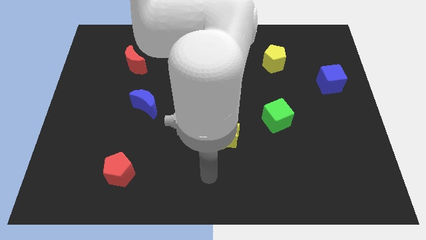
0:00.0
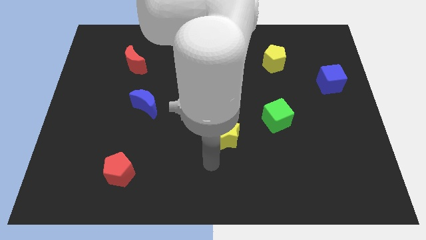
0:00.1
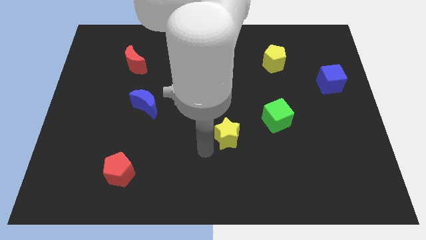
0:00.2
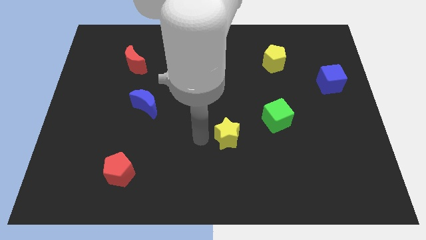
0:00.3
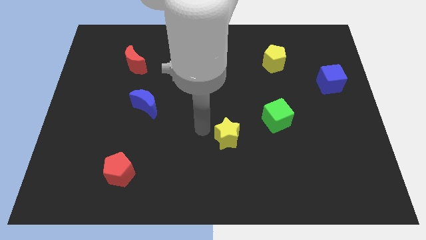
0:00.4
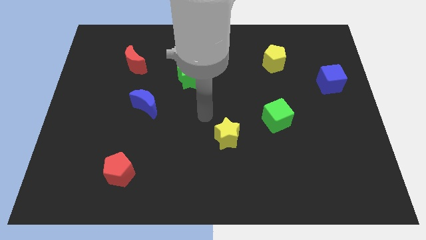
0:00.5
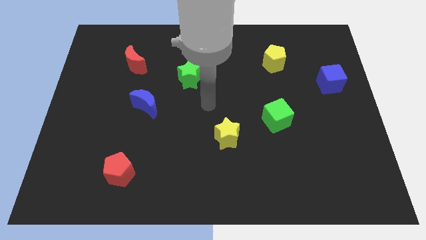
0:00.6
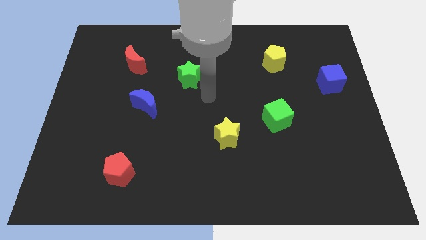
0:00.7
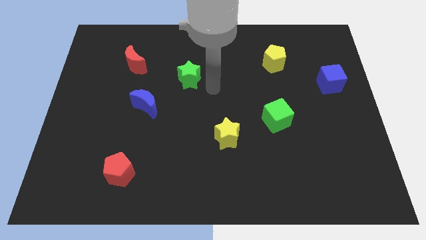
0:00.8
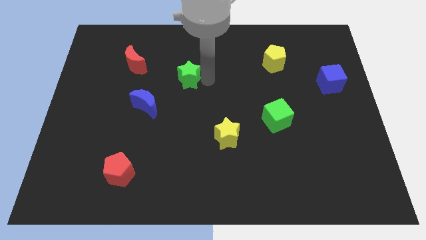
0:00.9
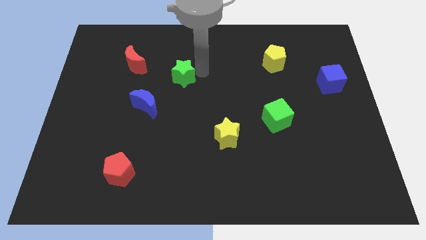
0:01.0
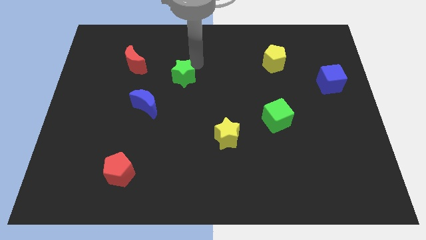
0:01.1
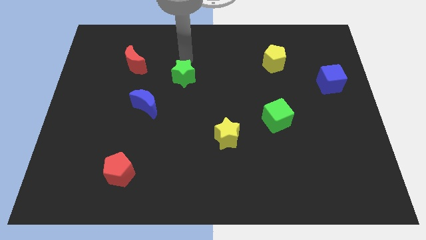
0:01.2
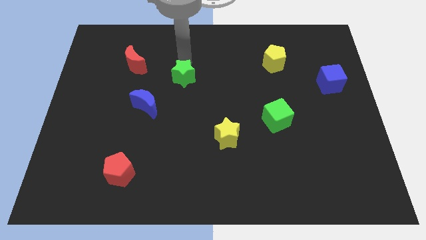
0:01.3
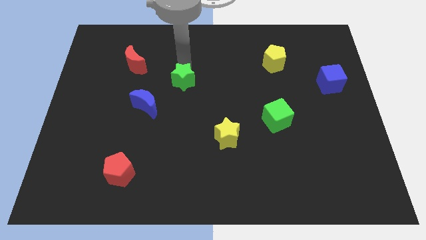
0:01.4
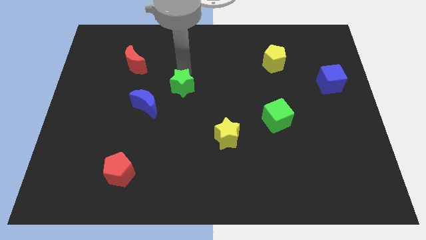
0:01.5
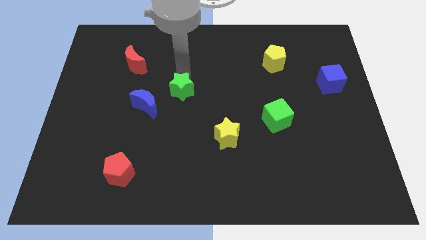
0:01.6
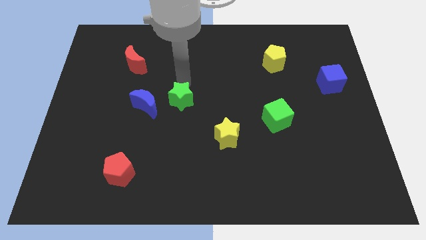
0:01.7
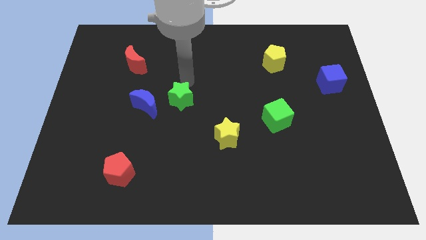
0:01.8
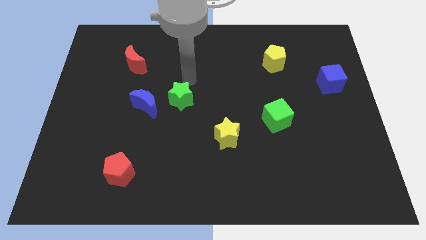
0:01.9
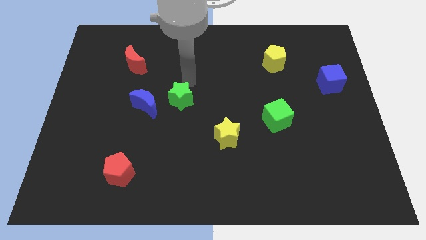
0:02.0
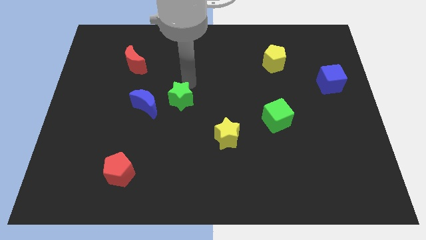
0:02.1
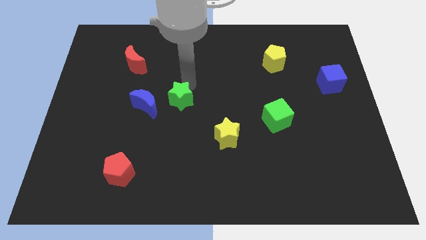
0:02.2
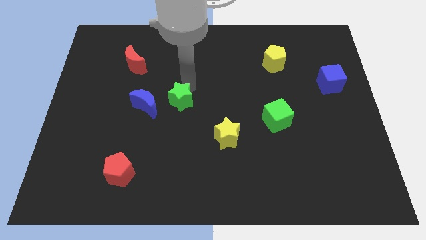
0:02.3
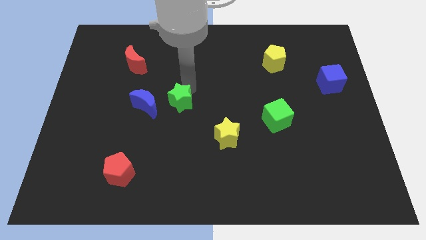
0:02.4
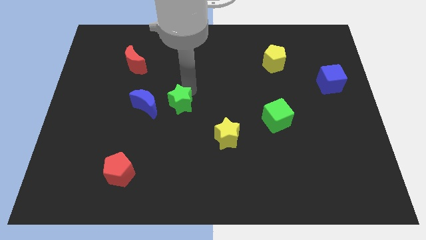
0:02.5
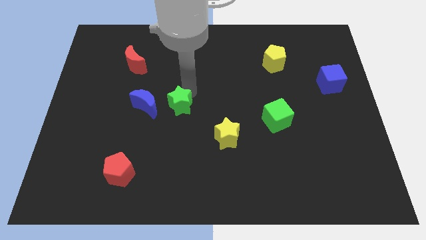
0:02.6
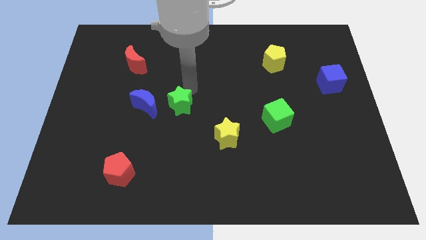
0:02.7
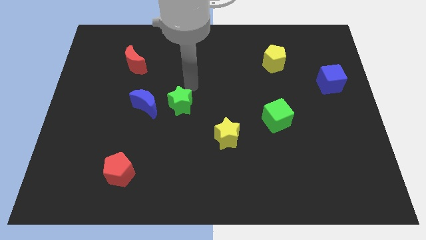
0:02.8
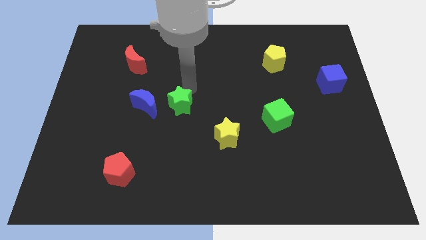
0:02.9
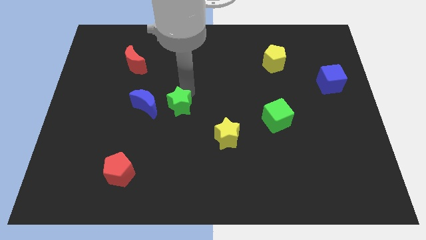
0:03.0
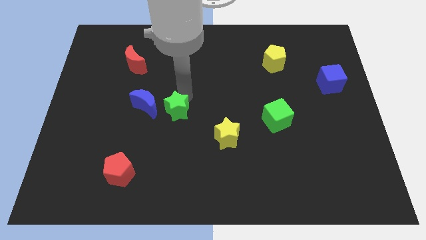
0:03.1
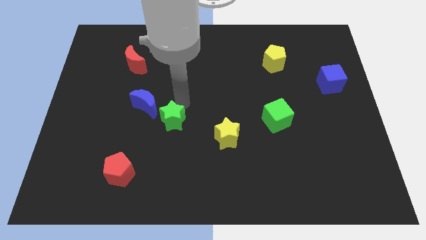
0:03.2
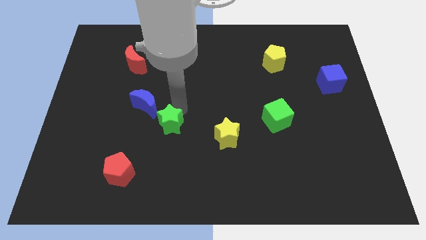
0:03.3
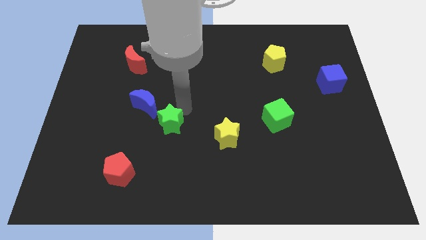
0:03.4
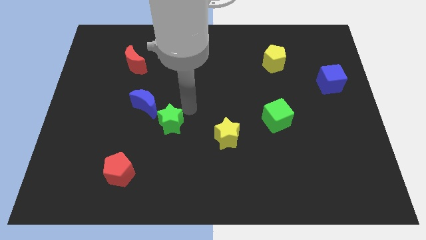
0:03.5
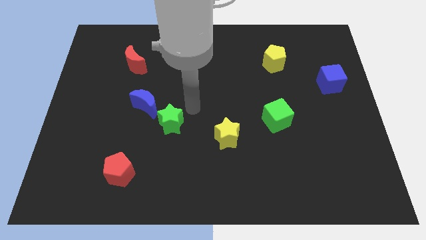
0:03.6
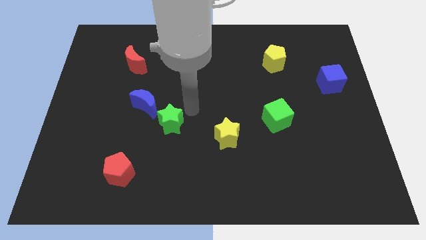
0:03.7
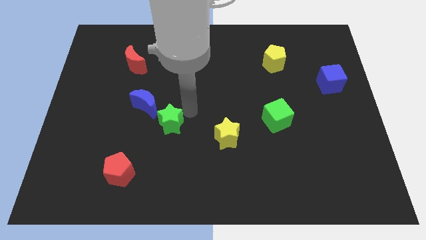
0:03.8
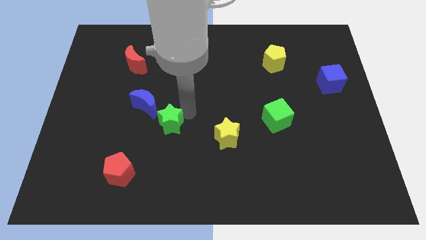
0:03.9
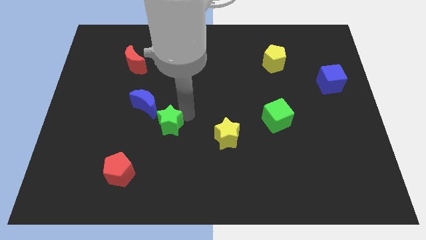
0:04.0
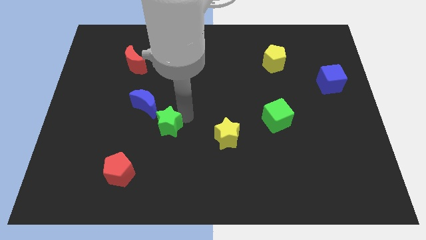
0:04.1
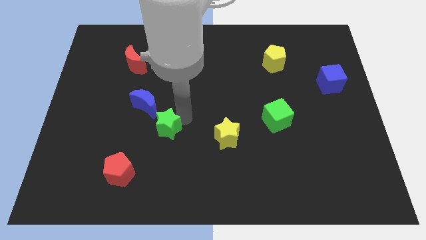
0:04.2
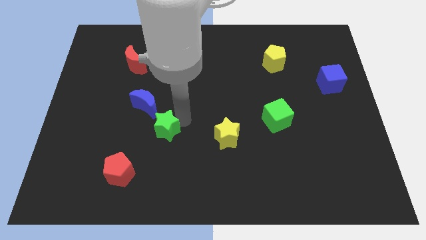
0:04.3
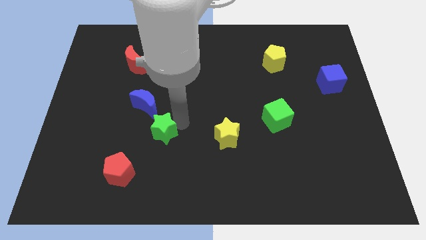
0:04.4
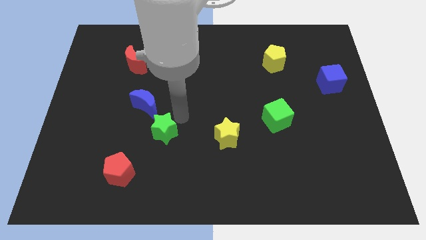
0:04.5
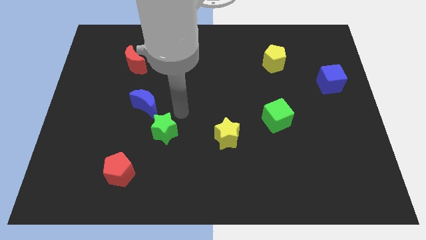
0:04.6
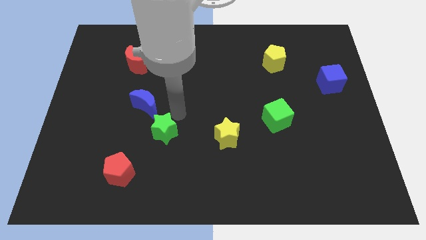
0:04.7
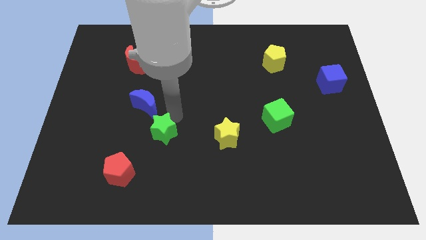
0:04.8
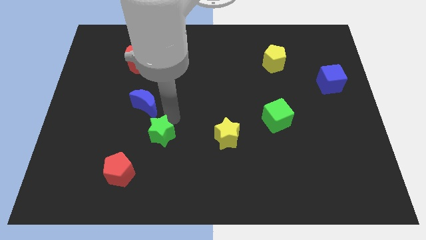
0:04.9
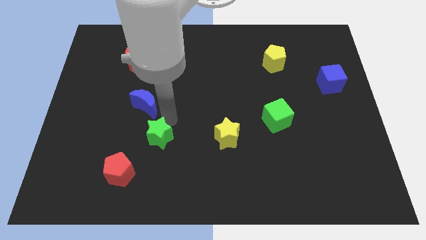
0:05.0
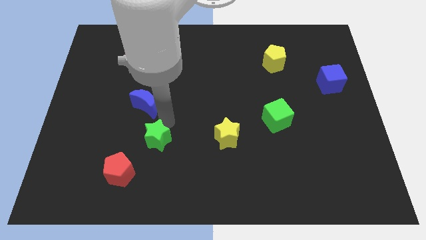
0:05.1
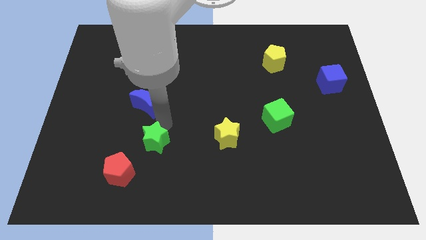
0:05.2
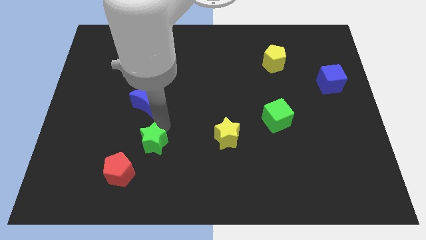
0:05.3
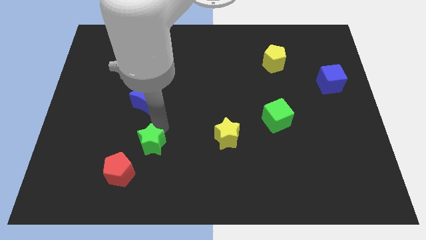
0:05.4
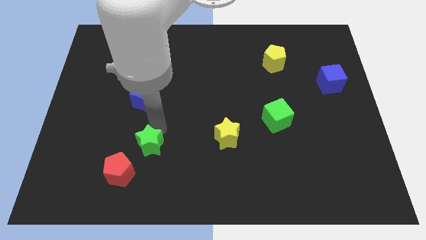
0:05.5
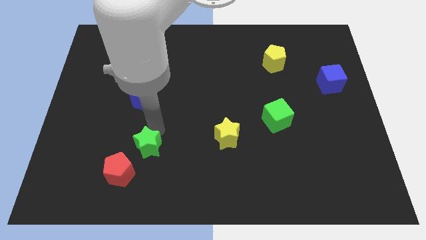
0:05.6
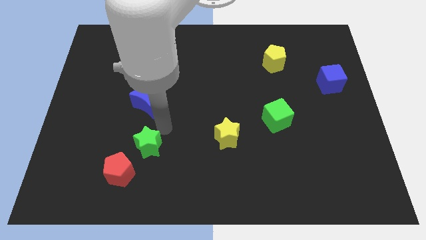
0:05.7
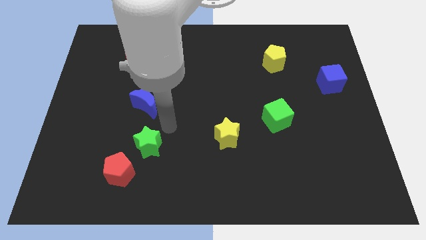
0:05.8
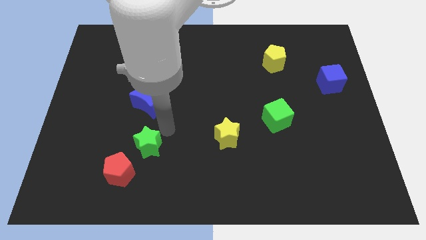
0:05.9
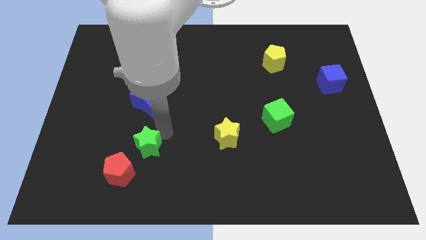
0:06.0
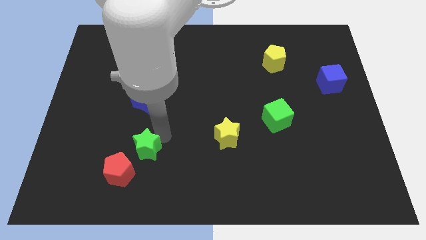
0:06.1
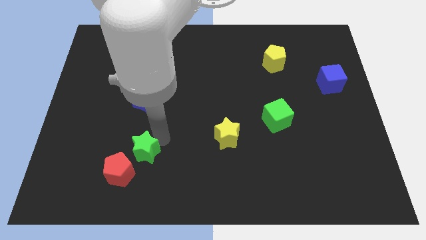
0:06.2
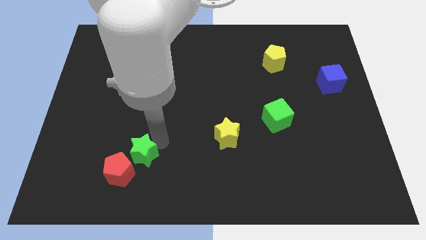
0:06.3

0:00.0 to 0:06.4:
slide the green star next to the red pentagon
